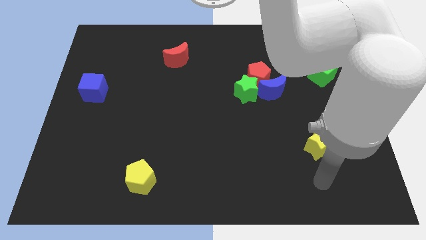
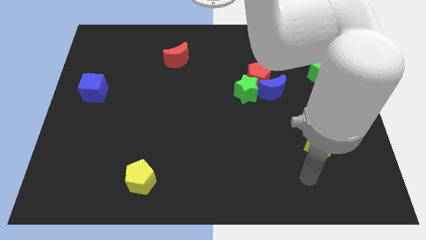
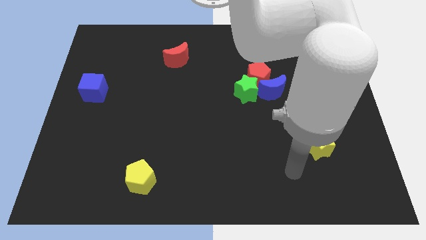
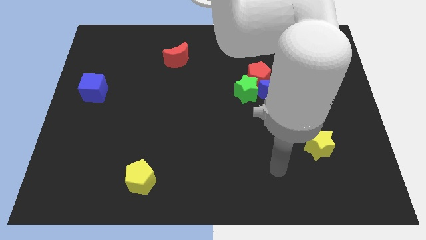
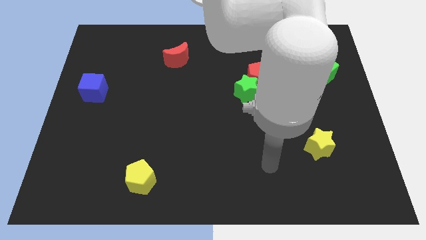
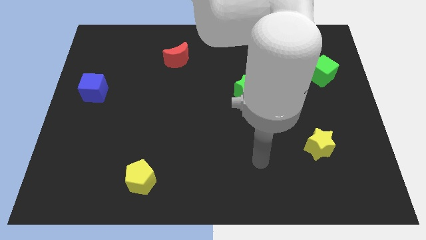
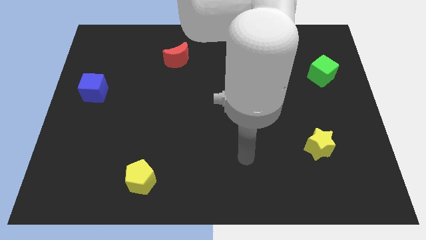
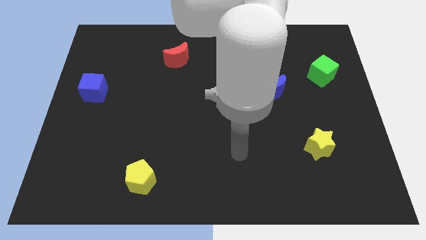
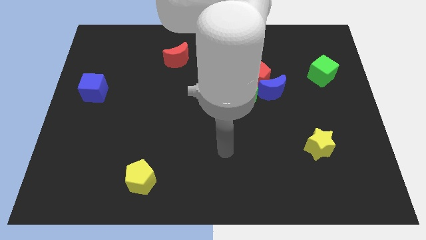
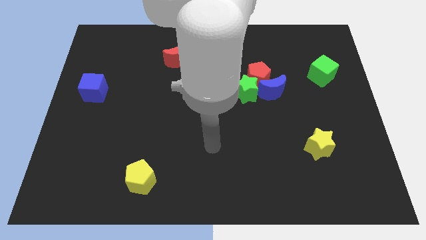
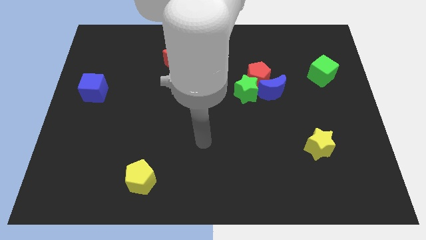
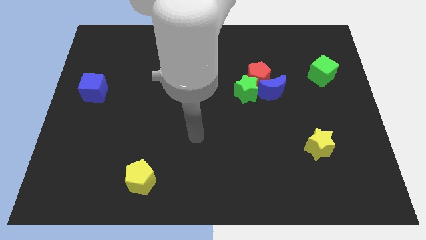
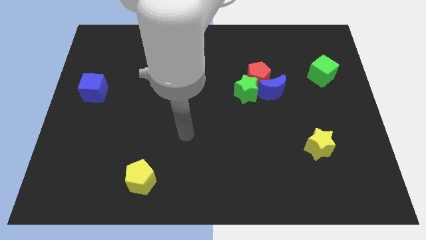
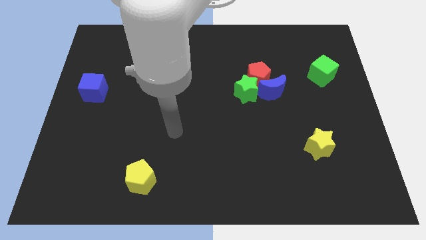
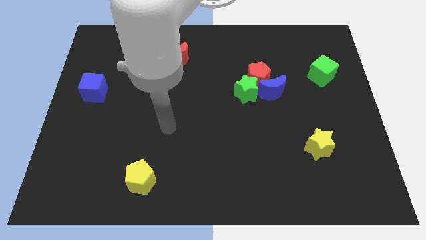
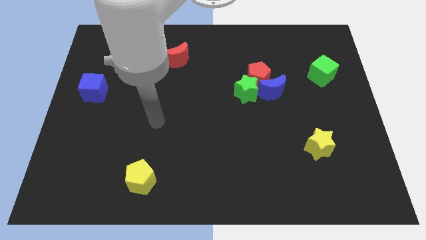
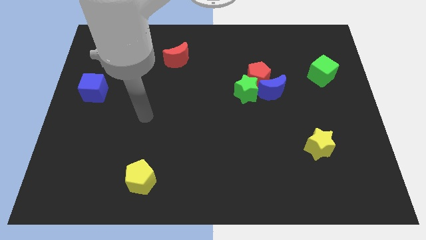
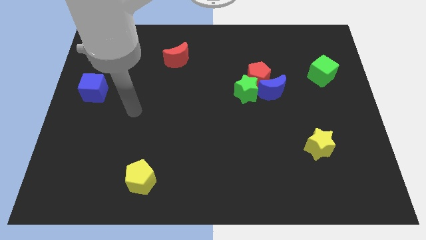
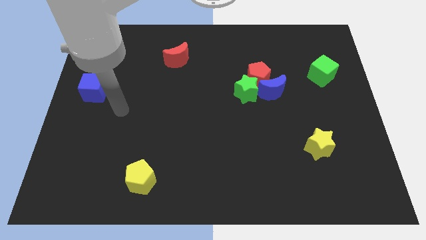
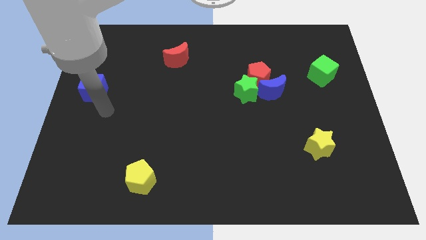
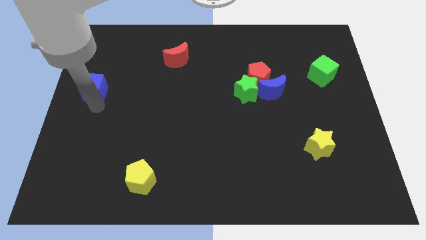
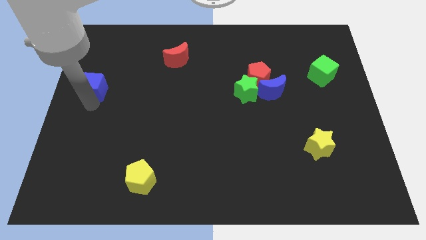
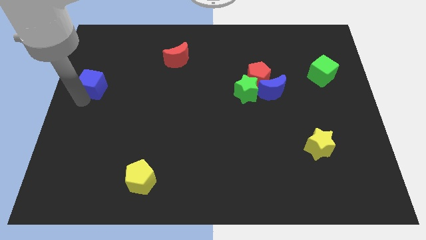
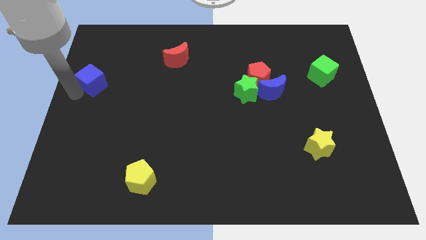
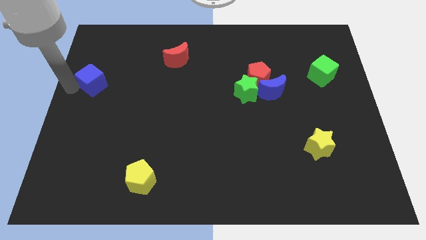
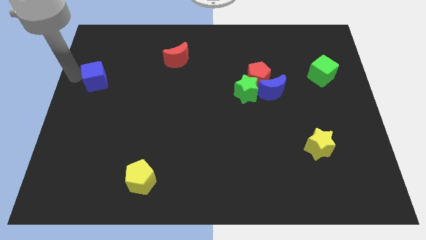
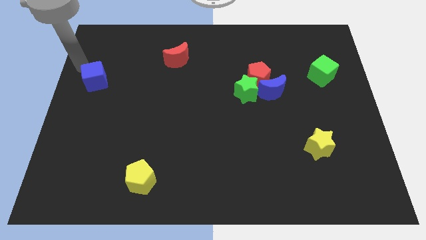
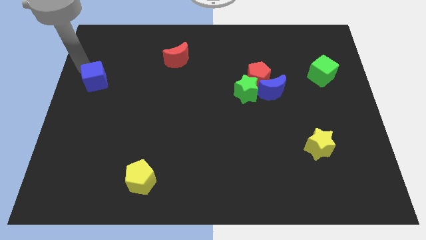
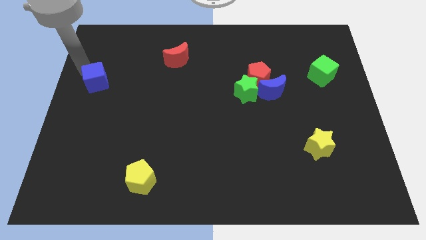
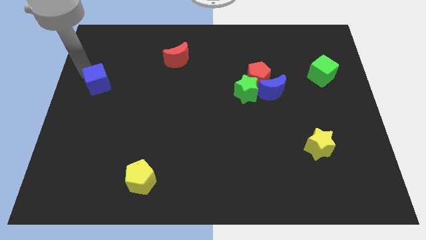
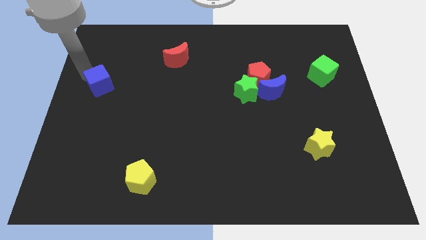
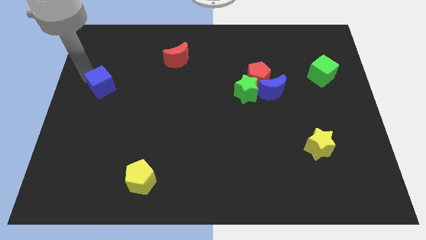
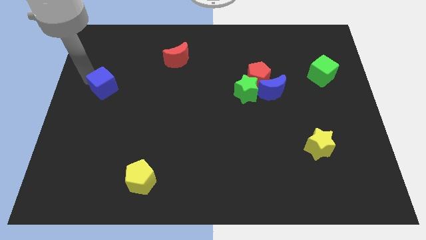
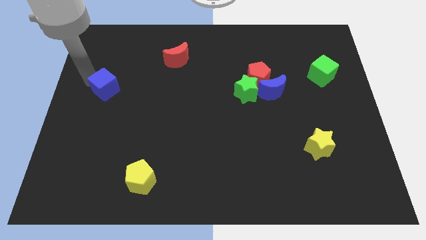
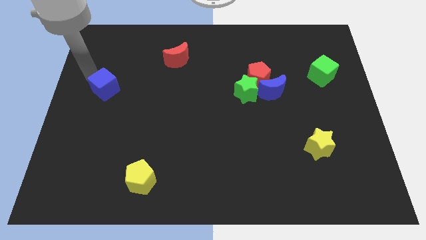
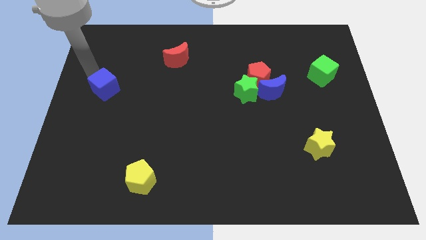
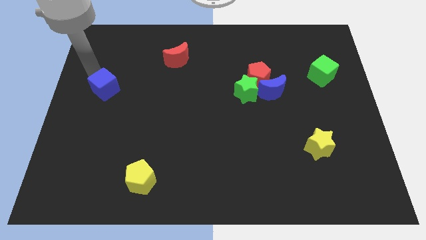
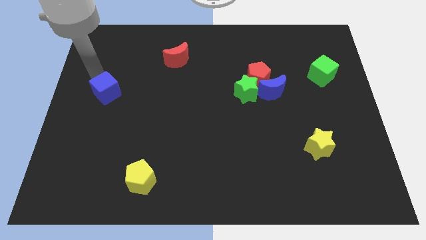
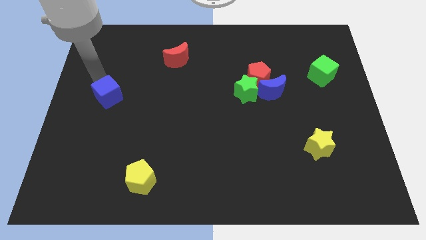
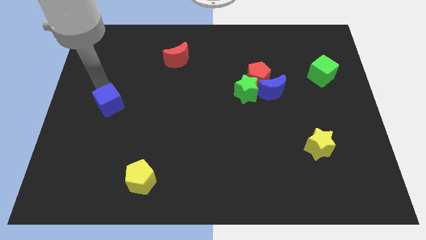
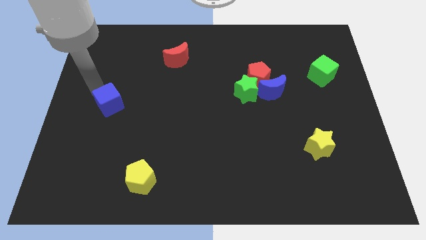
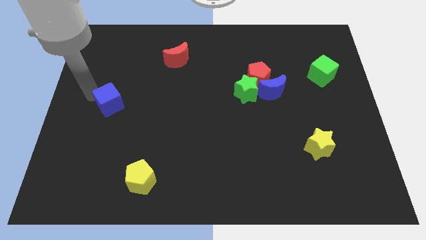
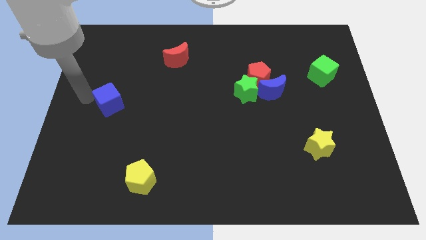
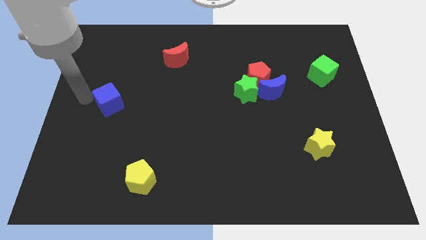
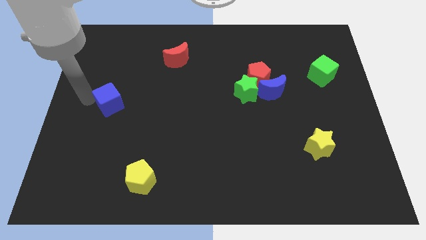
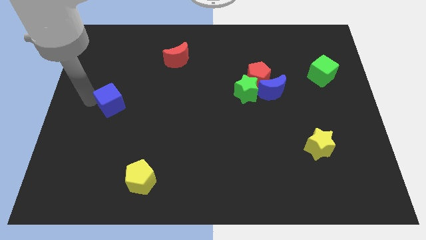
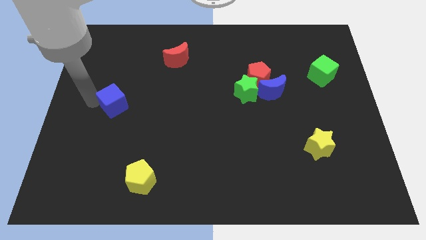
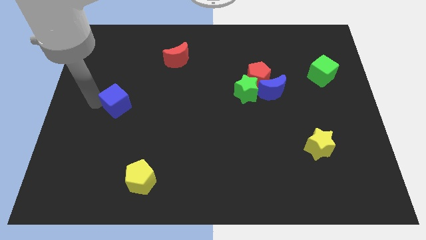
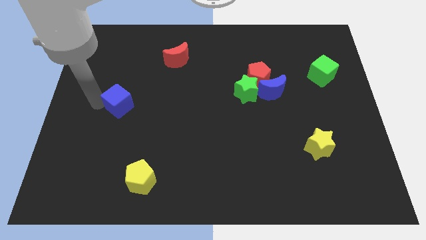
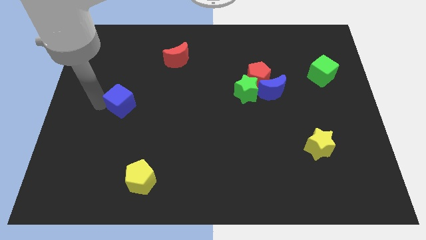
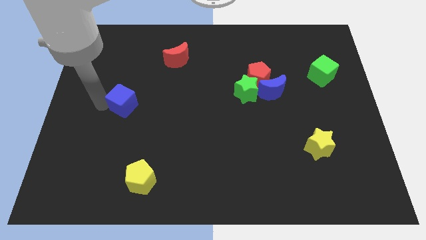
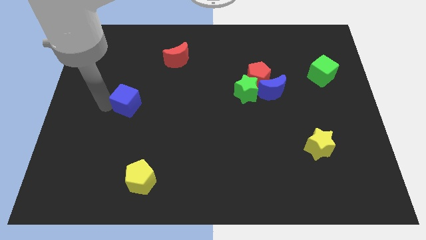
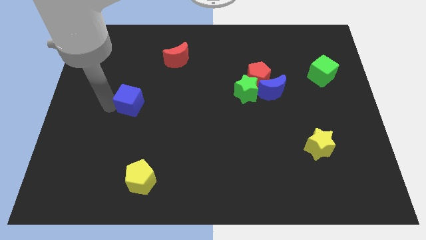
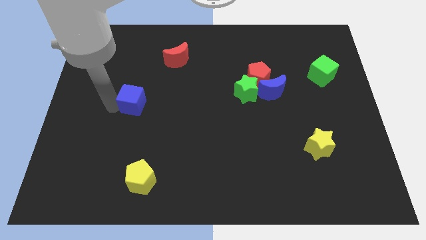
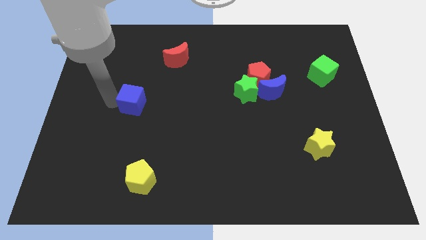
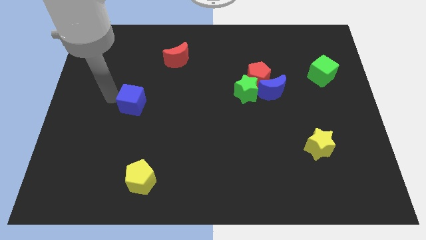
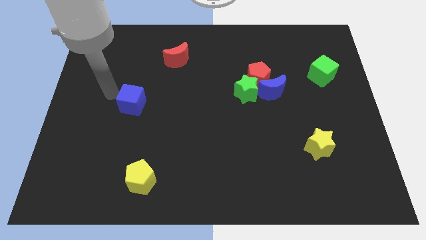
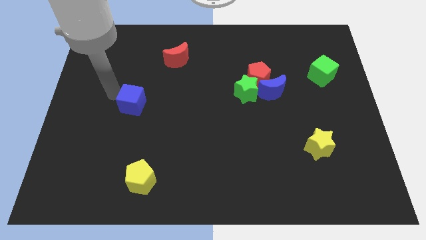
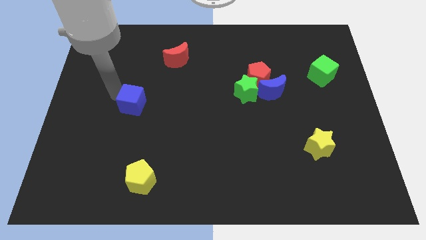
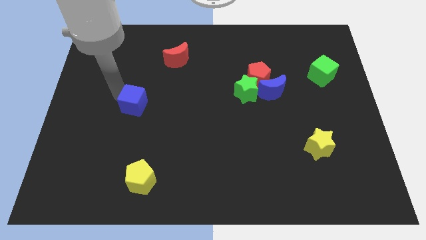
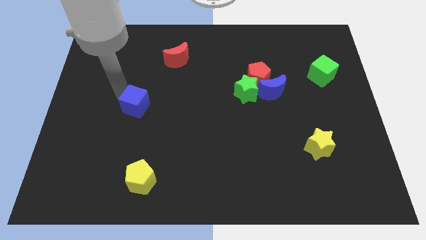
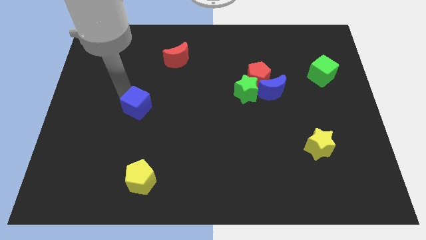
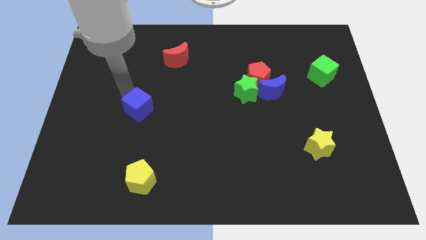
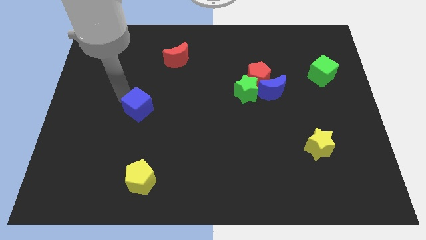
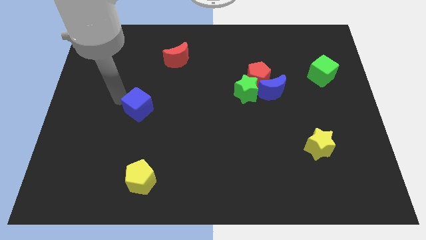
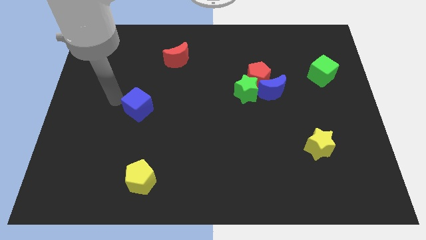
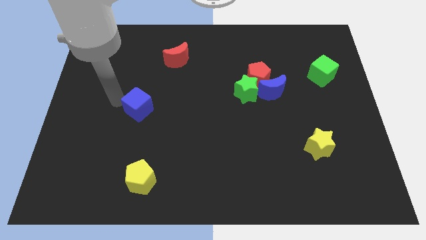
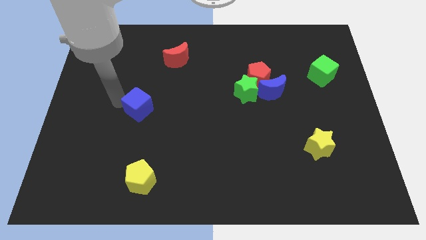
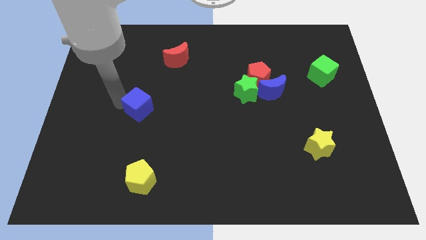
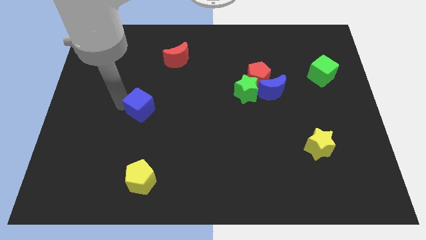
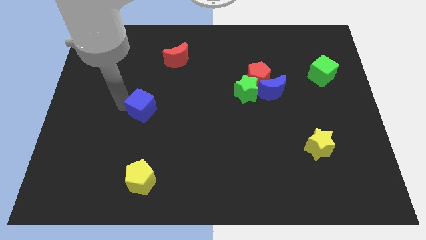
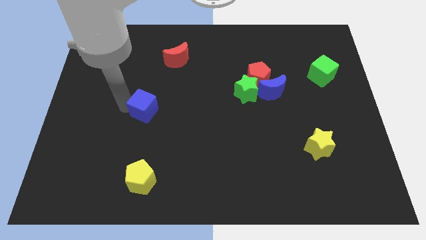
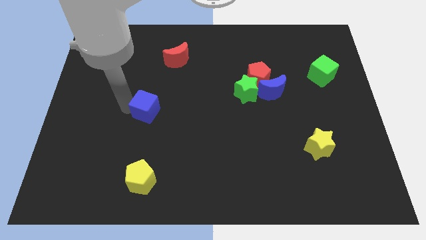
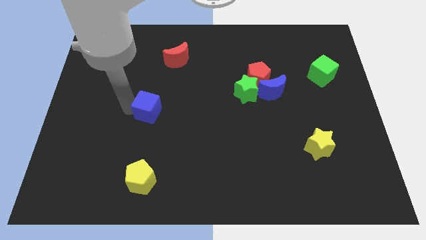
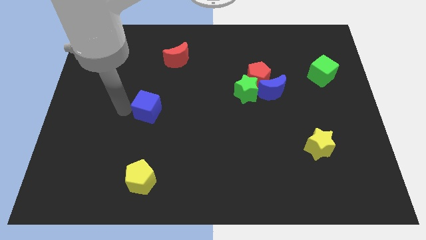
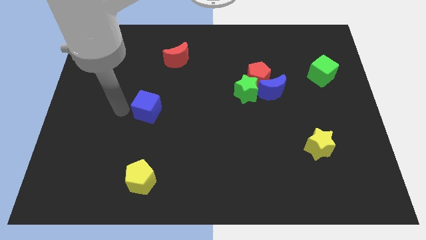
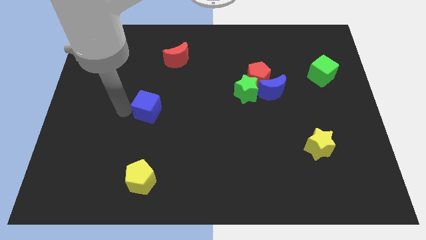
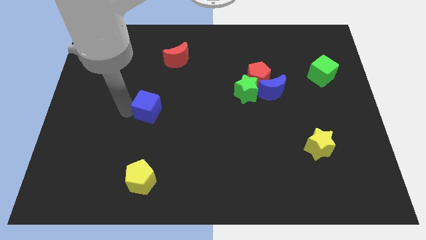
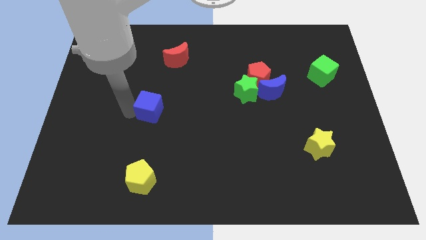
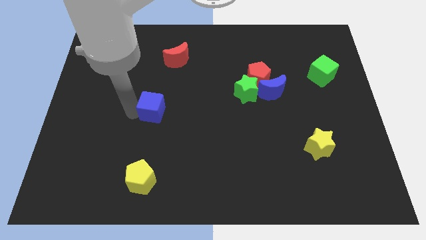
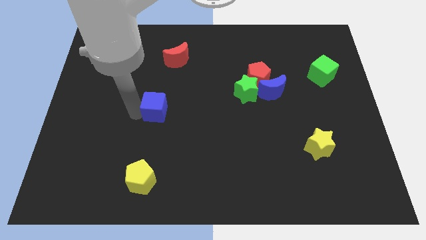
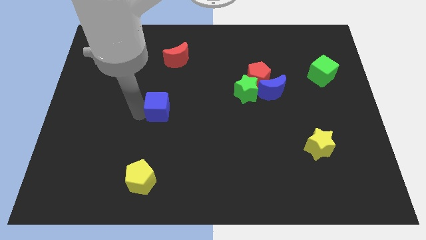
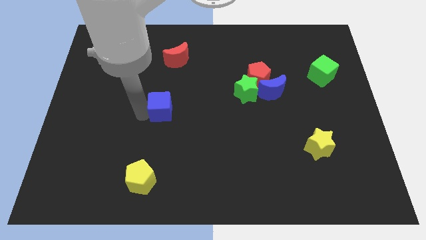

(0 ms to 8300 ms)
move the blue cube to the center of the board
